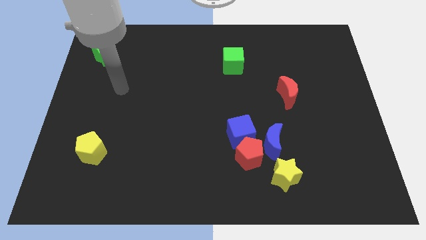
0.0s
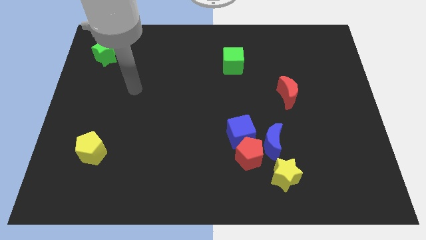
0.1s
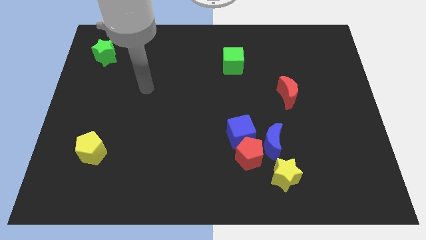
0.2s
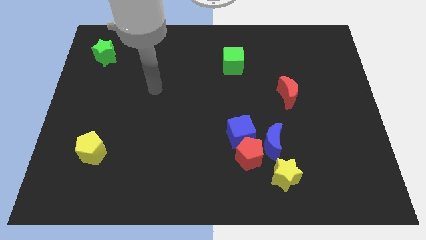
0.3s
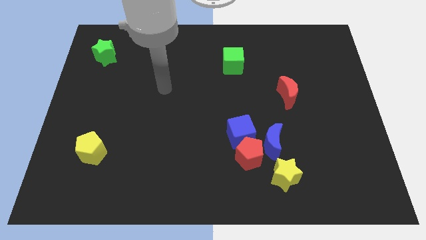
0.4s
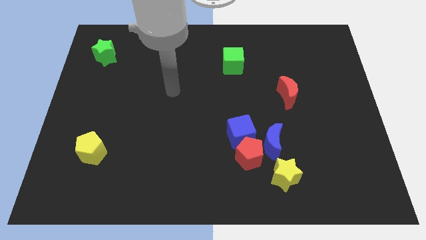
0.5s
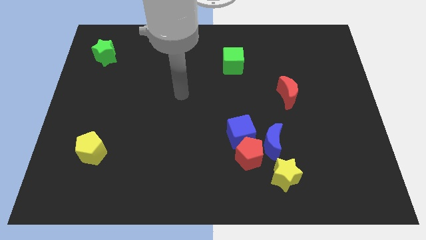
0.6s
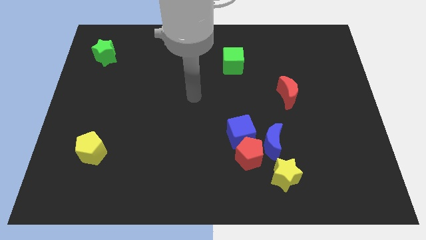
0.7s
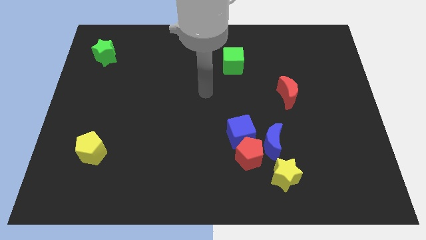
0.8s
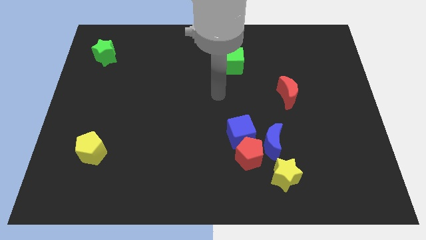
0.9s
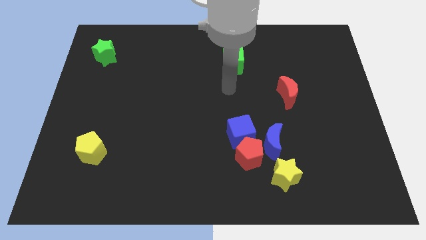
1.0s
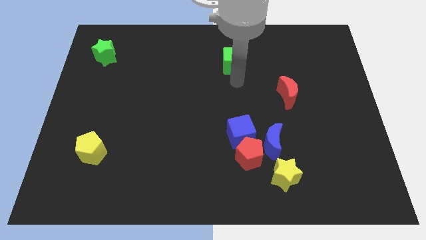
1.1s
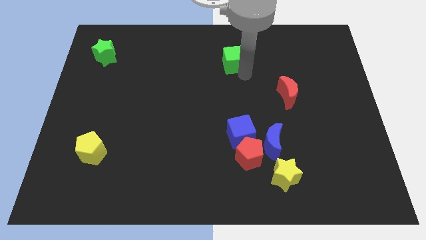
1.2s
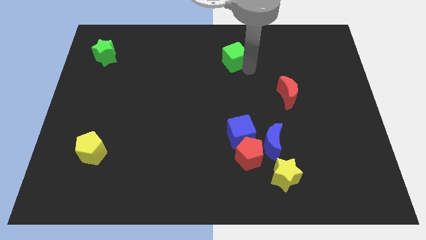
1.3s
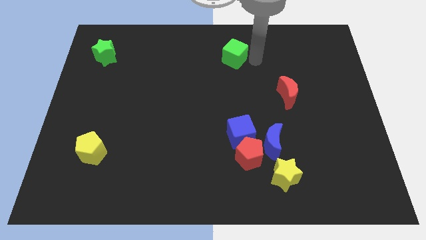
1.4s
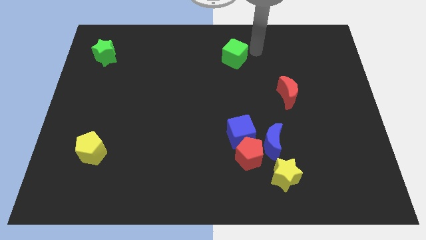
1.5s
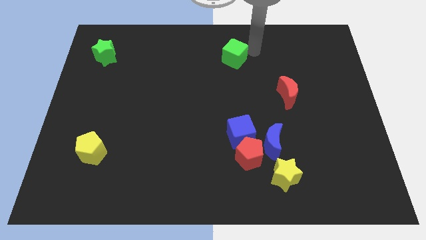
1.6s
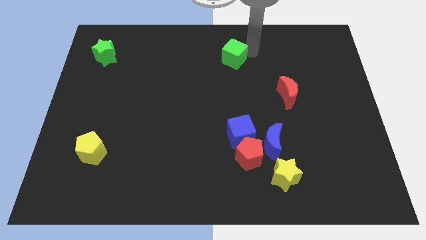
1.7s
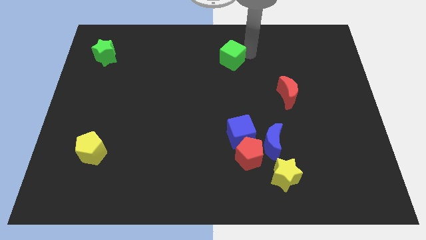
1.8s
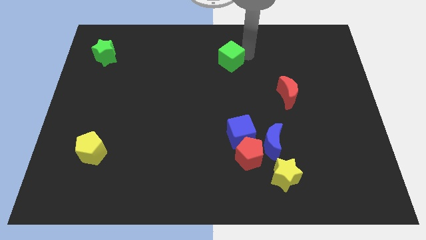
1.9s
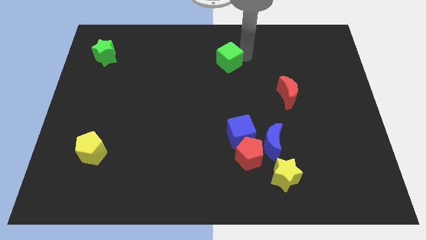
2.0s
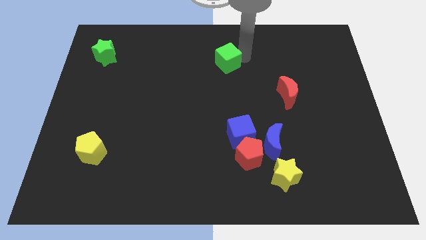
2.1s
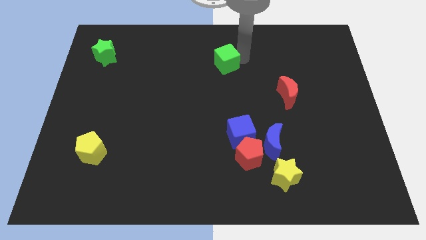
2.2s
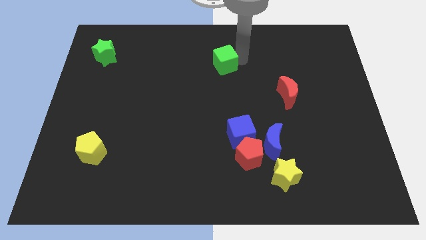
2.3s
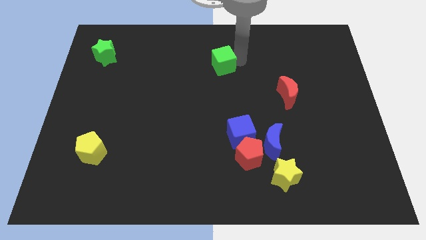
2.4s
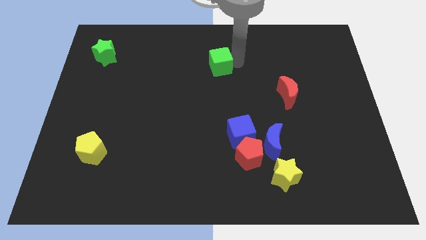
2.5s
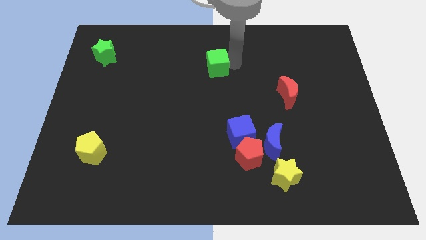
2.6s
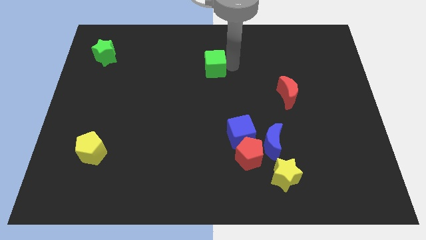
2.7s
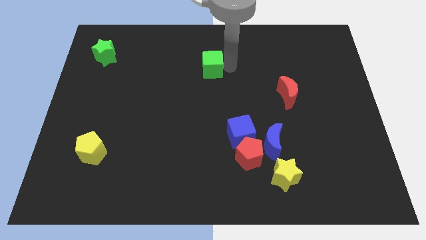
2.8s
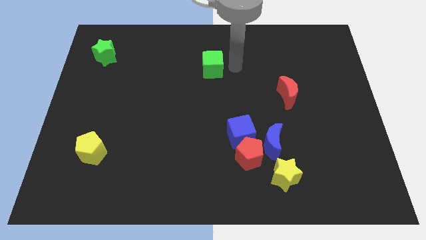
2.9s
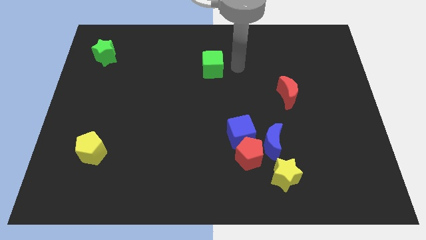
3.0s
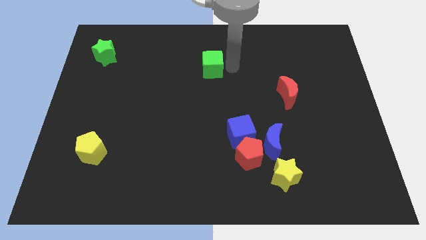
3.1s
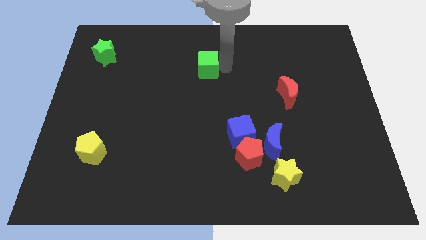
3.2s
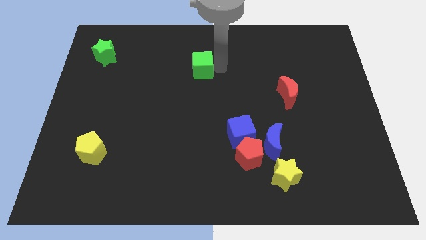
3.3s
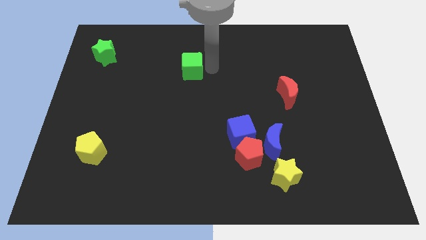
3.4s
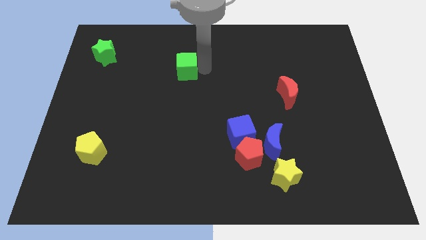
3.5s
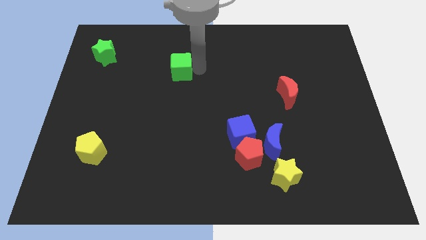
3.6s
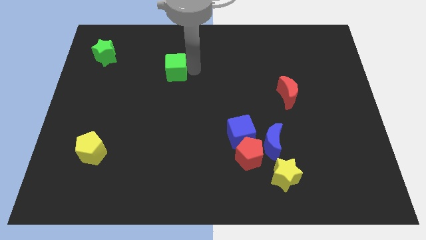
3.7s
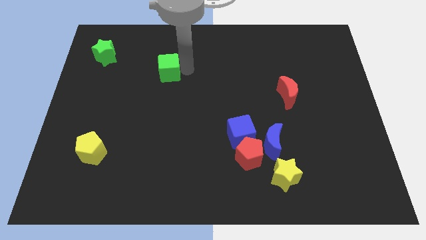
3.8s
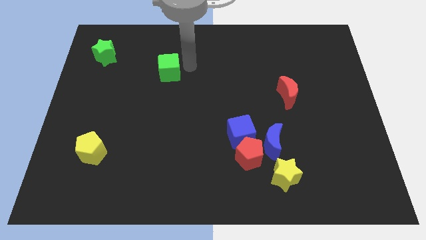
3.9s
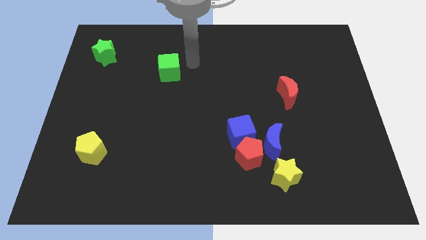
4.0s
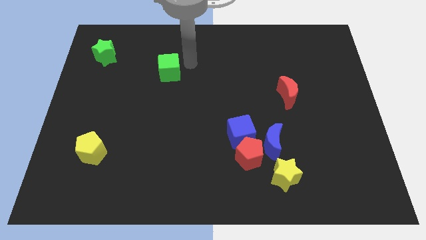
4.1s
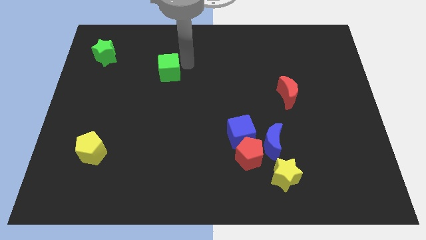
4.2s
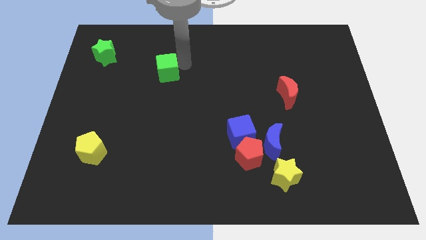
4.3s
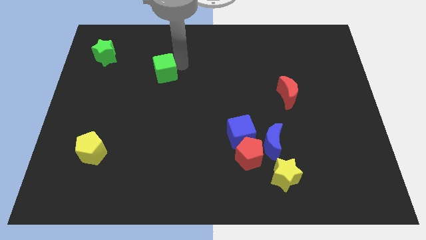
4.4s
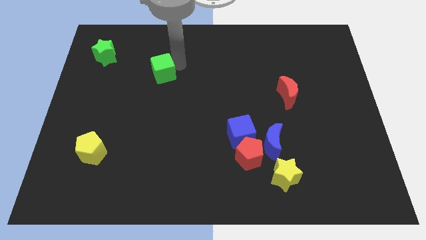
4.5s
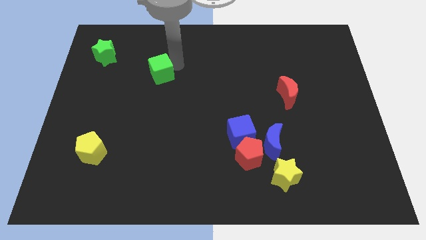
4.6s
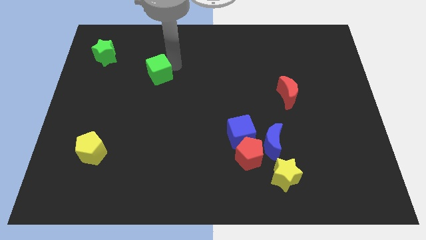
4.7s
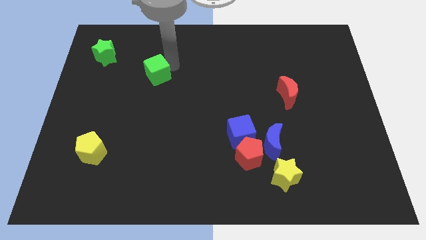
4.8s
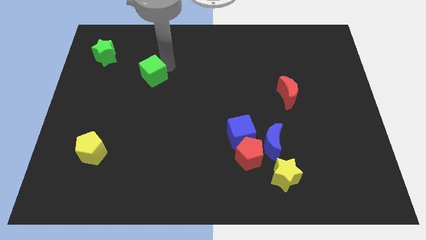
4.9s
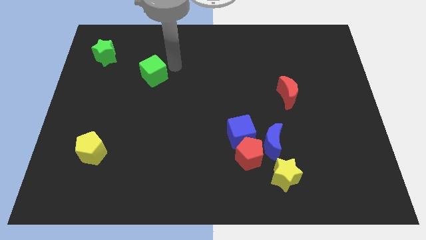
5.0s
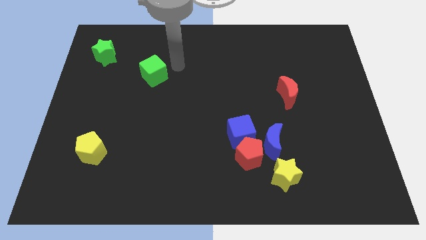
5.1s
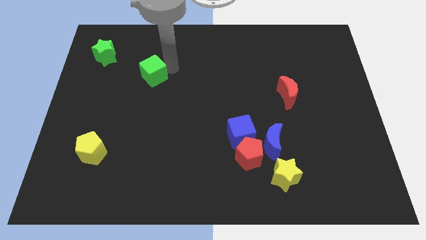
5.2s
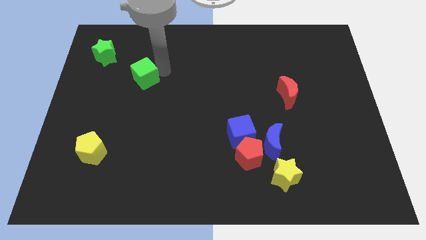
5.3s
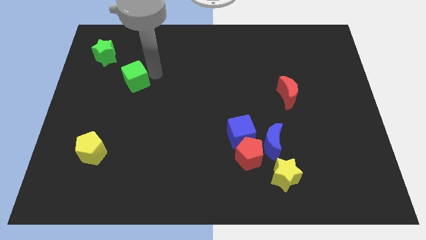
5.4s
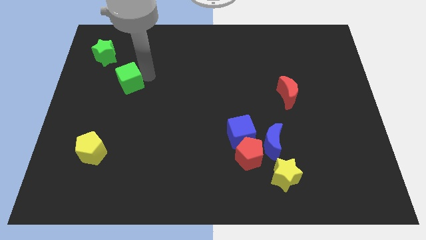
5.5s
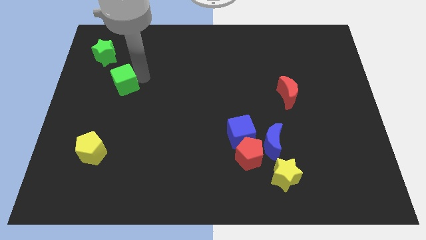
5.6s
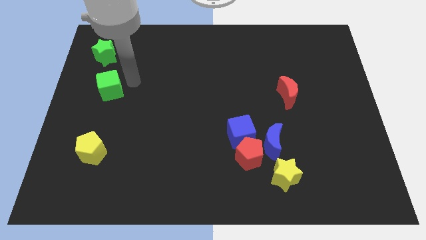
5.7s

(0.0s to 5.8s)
move the green cube to the center left

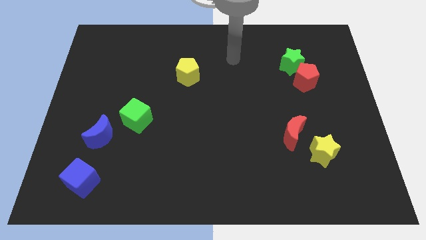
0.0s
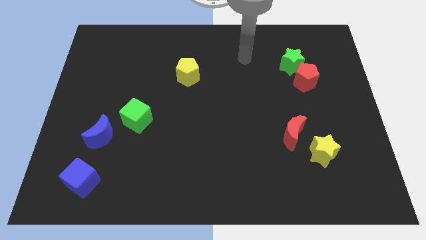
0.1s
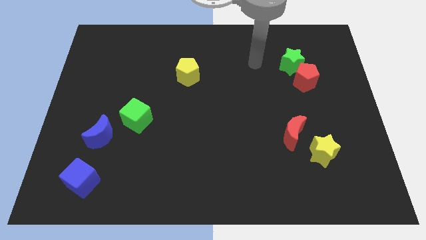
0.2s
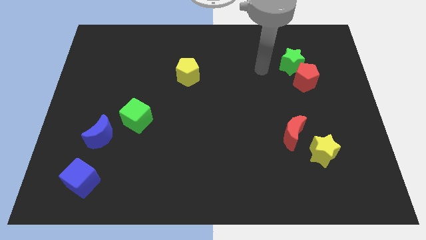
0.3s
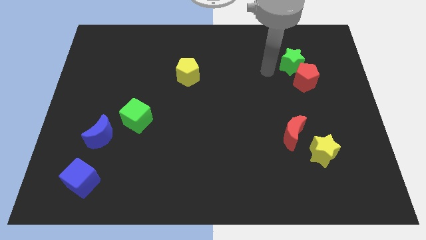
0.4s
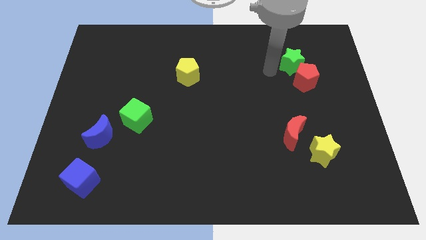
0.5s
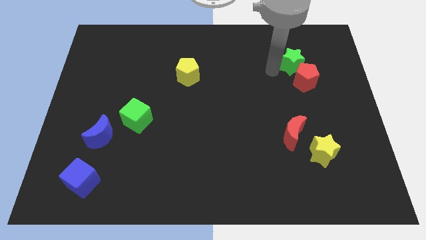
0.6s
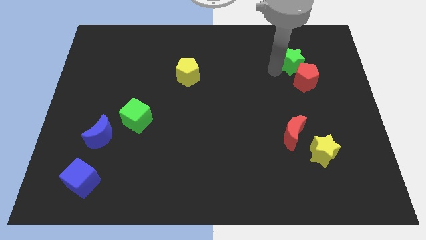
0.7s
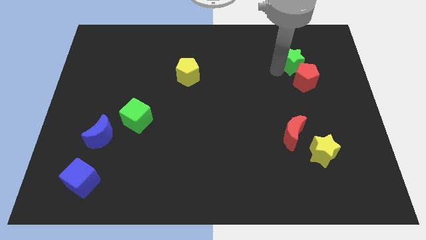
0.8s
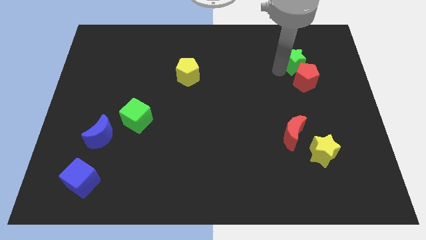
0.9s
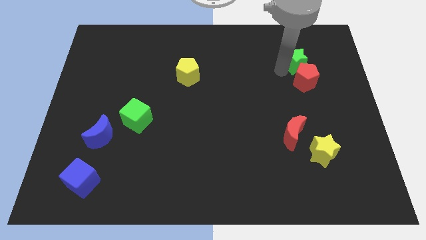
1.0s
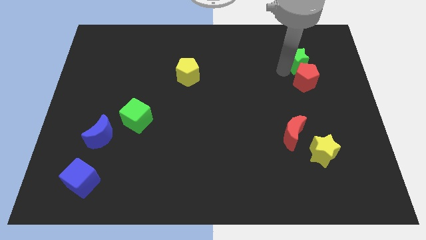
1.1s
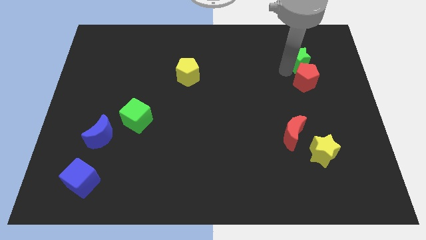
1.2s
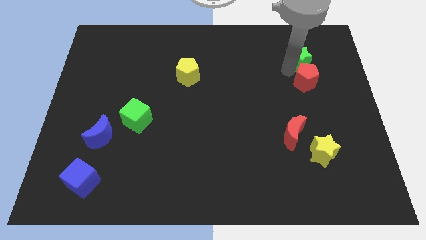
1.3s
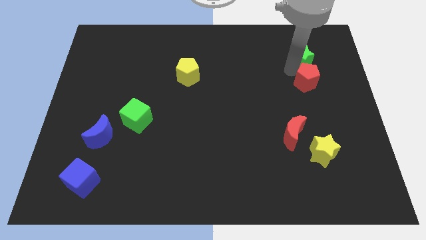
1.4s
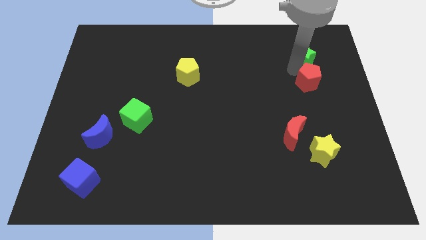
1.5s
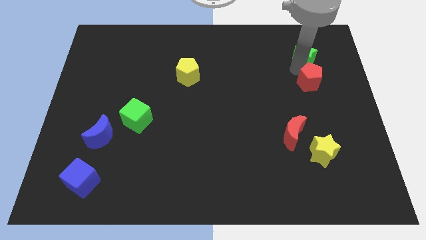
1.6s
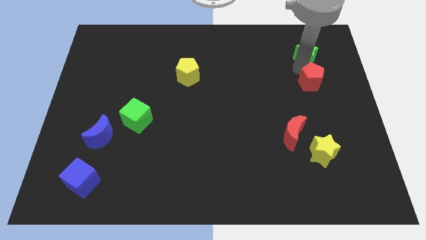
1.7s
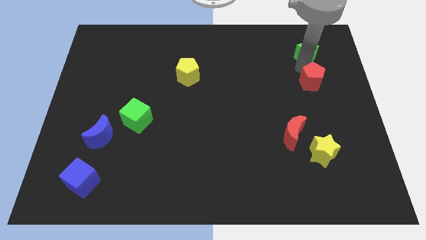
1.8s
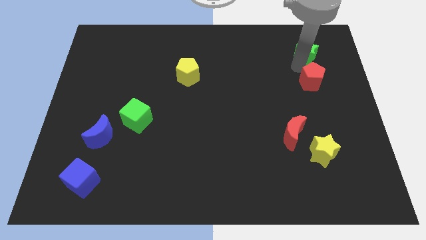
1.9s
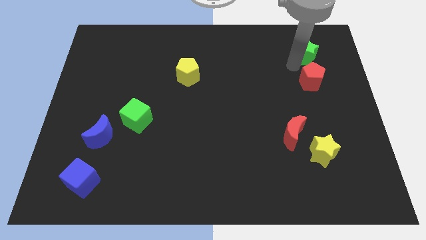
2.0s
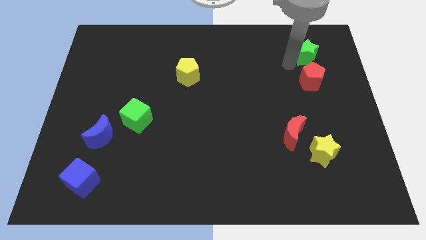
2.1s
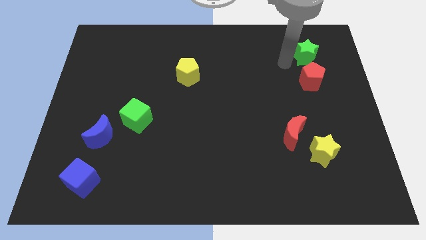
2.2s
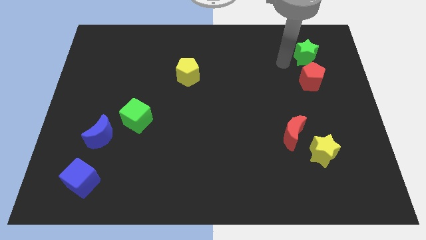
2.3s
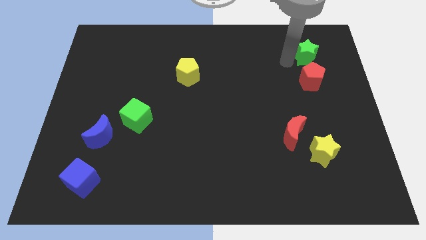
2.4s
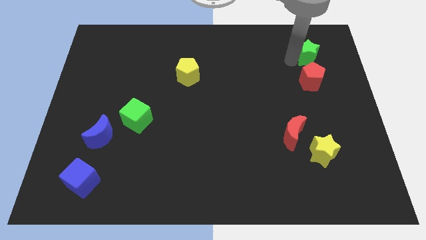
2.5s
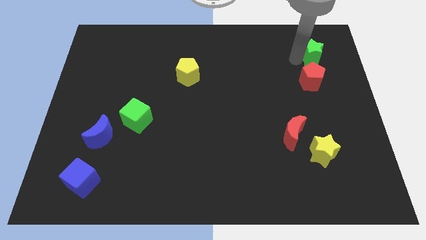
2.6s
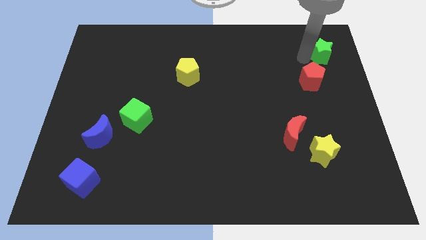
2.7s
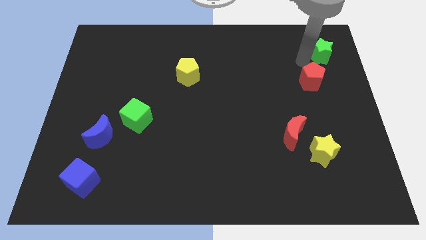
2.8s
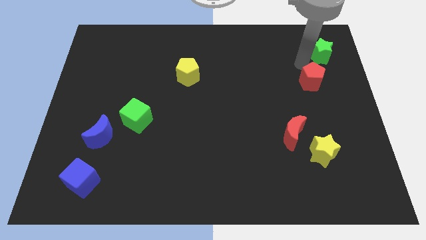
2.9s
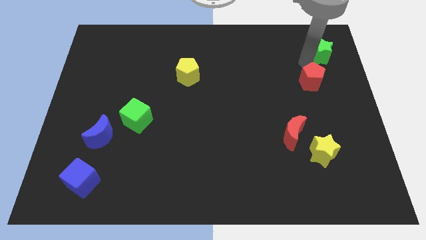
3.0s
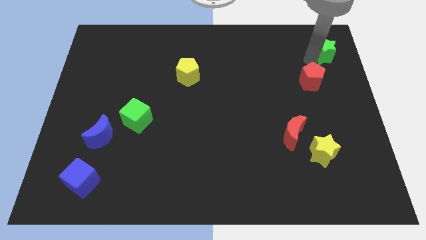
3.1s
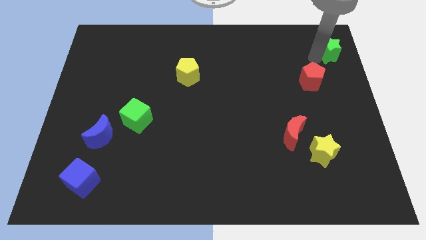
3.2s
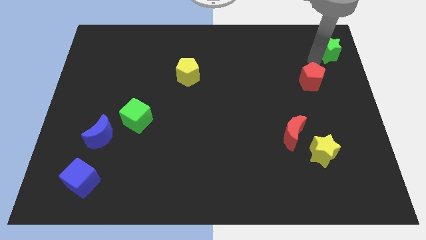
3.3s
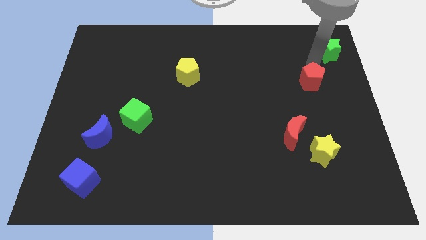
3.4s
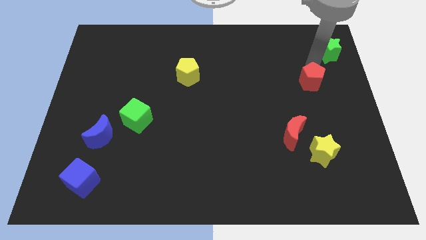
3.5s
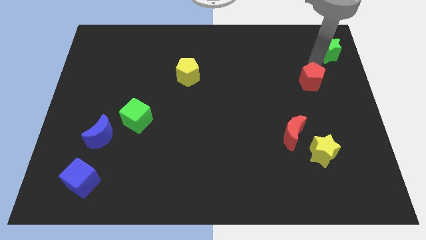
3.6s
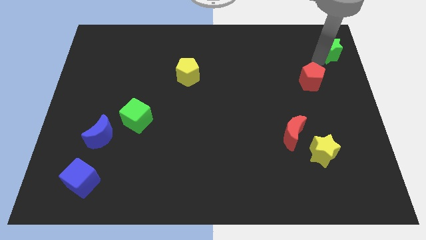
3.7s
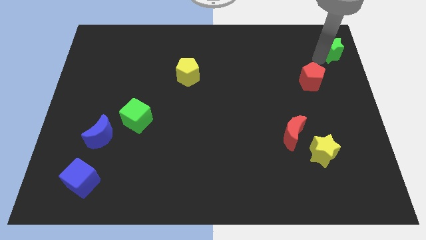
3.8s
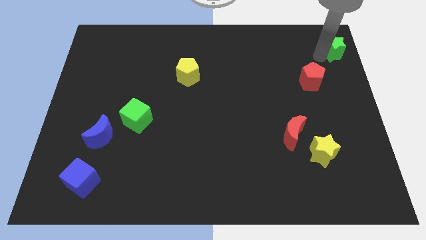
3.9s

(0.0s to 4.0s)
move the green star to the upper right corner
